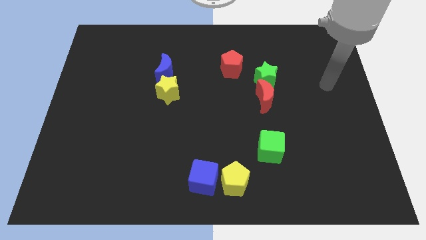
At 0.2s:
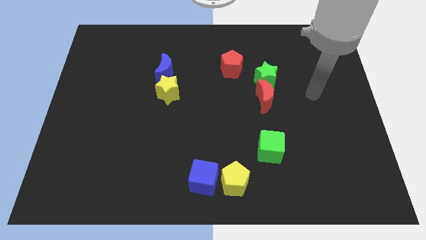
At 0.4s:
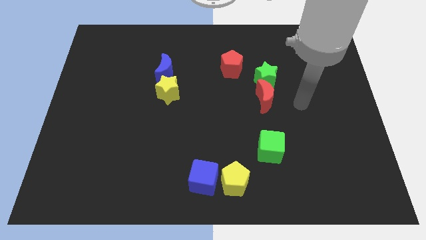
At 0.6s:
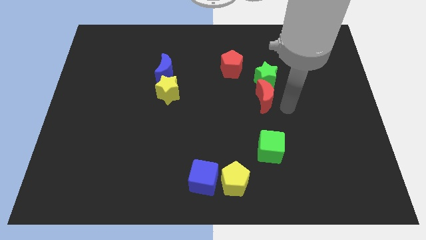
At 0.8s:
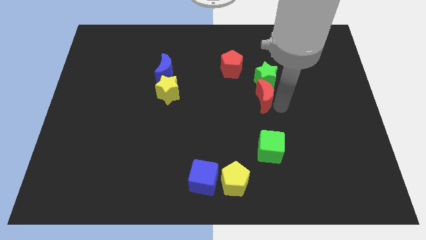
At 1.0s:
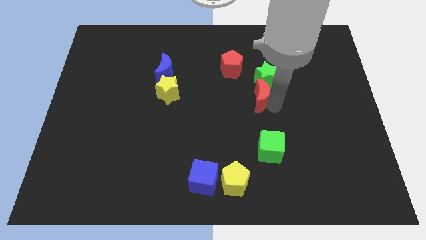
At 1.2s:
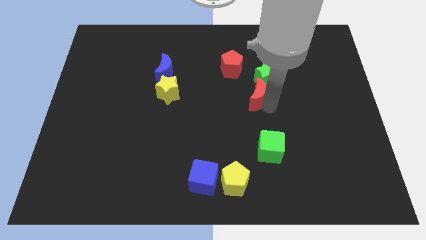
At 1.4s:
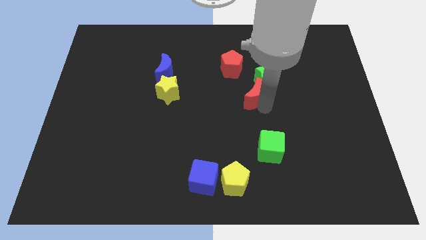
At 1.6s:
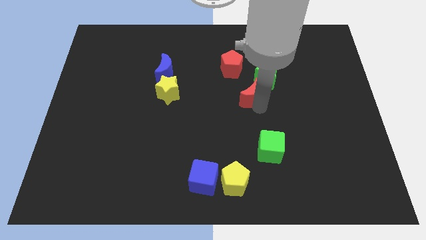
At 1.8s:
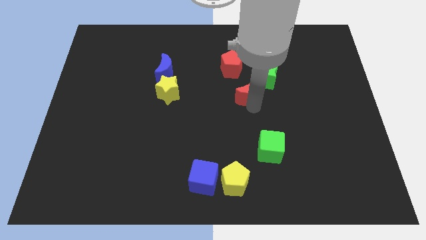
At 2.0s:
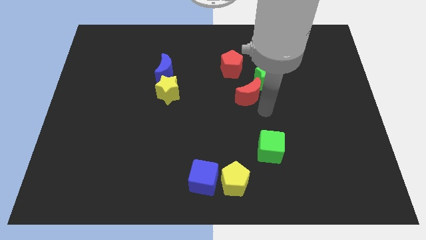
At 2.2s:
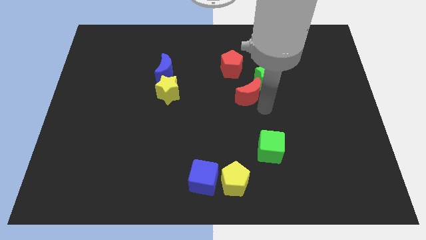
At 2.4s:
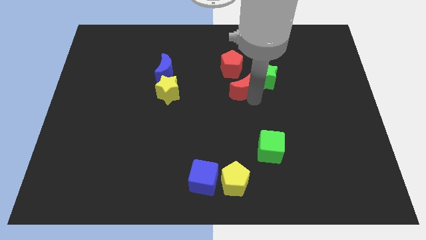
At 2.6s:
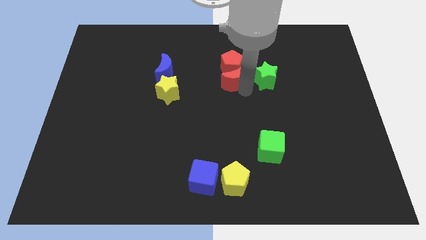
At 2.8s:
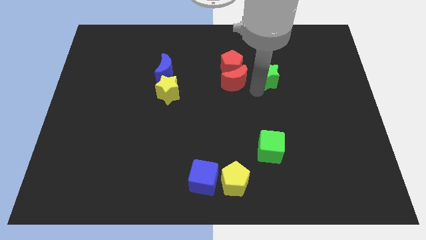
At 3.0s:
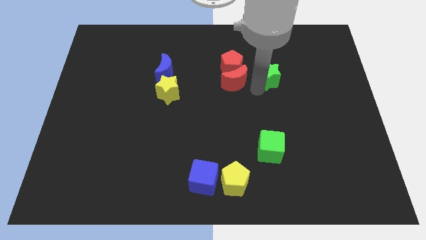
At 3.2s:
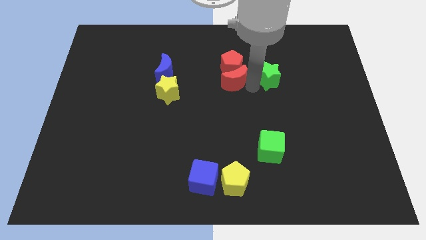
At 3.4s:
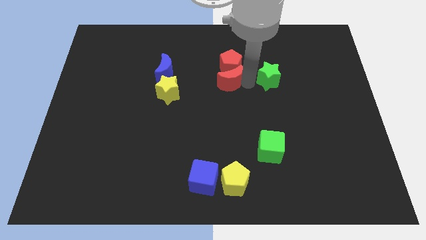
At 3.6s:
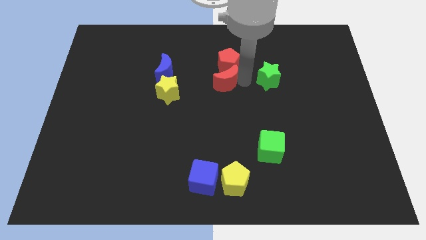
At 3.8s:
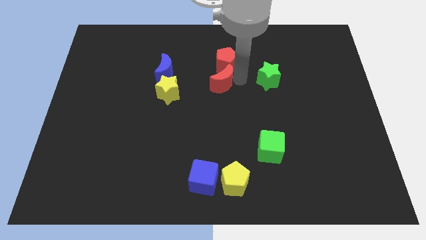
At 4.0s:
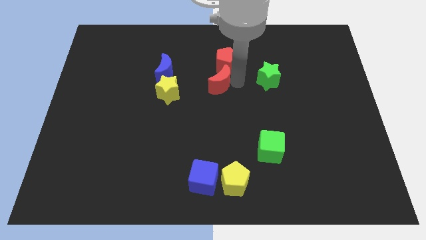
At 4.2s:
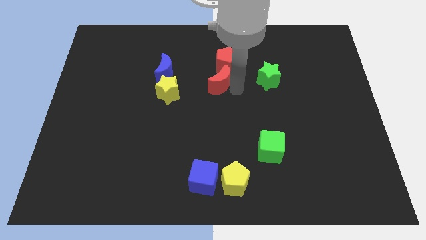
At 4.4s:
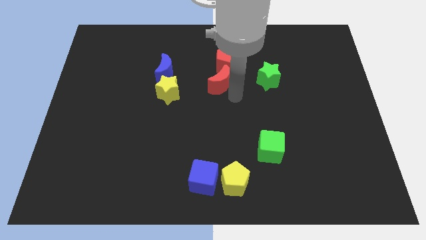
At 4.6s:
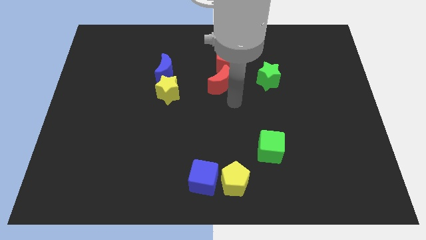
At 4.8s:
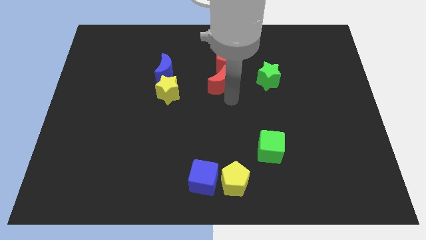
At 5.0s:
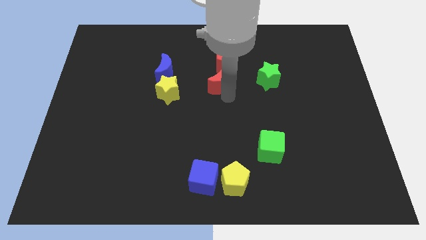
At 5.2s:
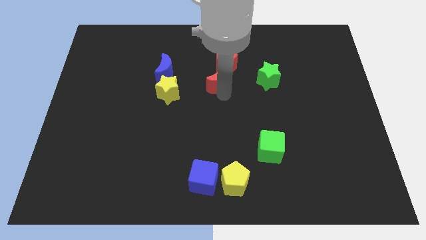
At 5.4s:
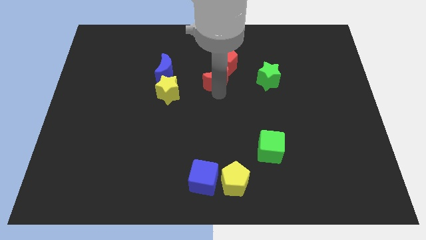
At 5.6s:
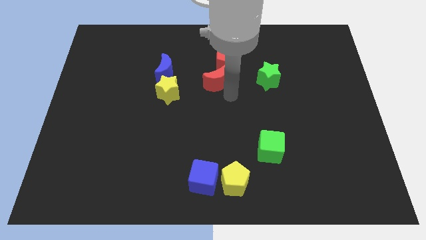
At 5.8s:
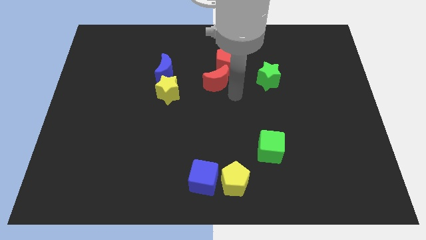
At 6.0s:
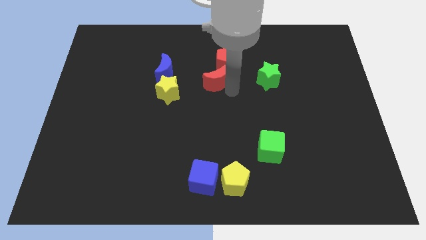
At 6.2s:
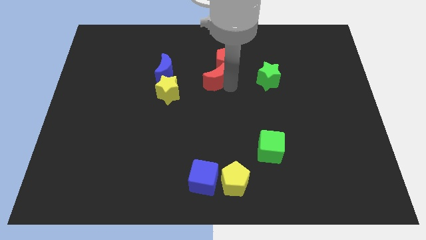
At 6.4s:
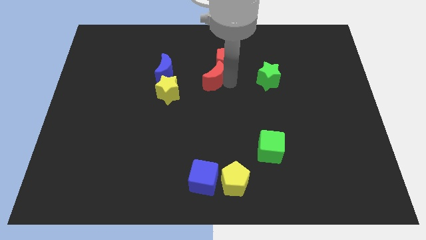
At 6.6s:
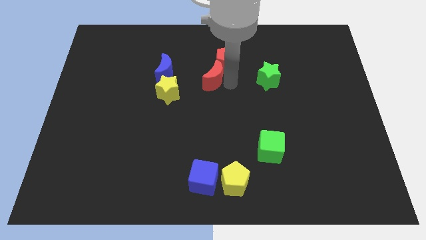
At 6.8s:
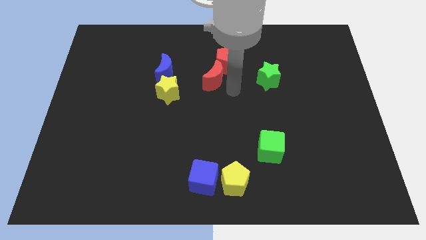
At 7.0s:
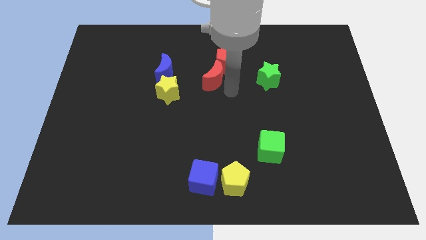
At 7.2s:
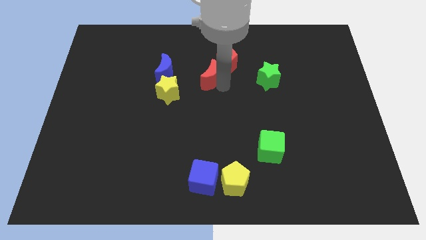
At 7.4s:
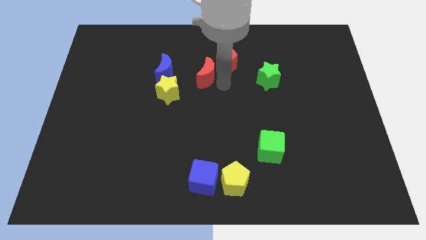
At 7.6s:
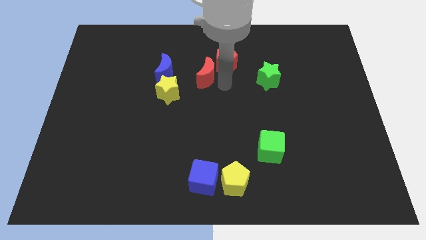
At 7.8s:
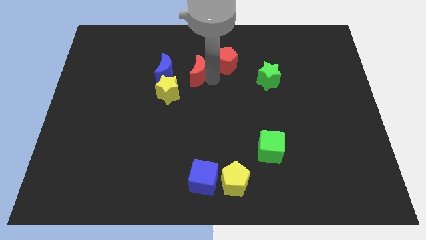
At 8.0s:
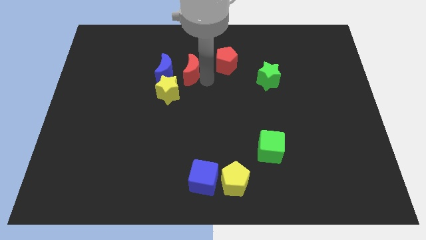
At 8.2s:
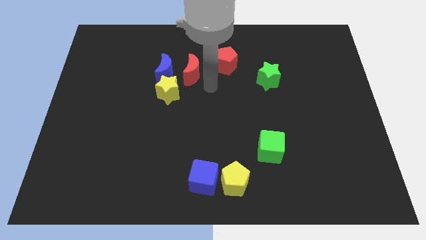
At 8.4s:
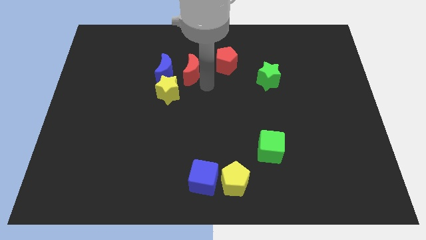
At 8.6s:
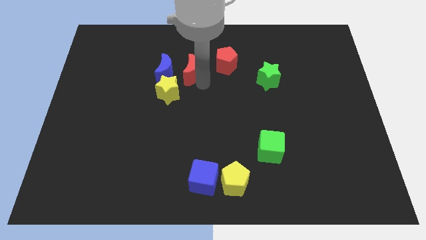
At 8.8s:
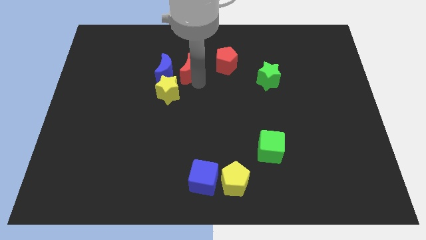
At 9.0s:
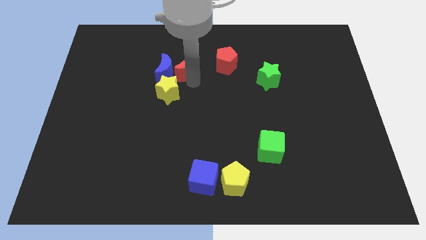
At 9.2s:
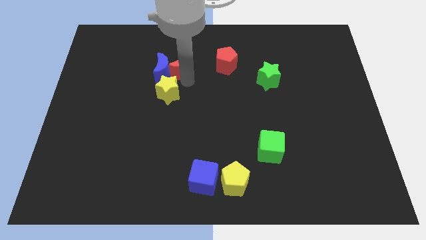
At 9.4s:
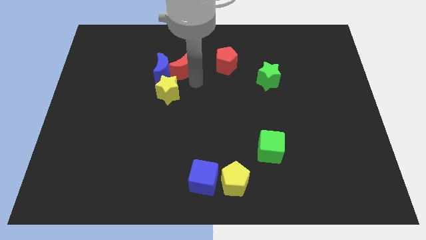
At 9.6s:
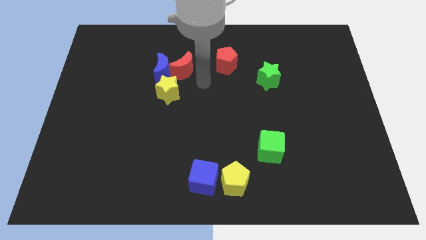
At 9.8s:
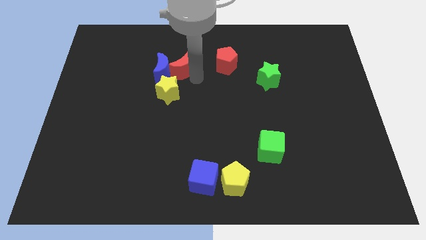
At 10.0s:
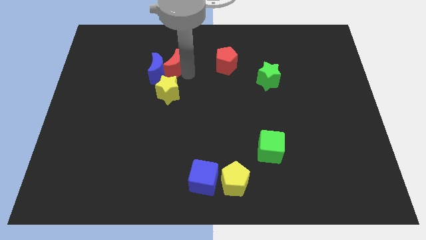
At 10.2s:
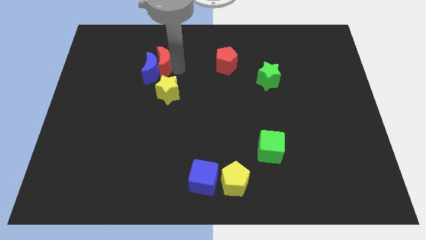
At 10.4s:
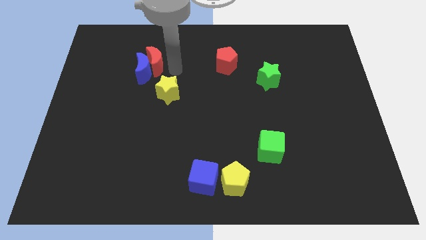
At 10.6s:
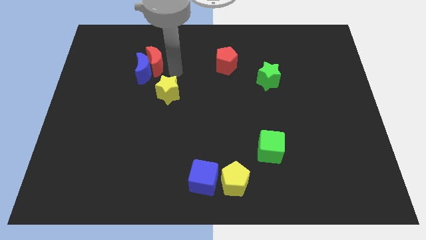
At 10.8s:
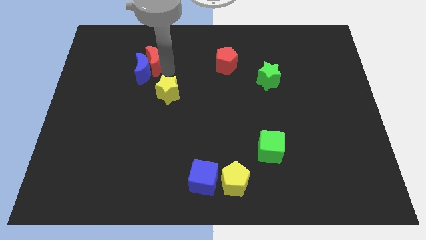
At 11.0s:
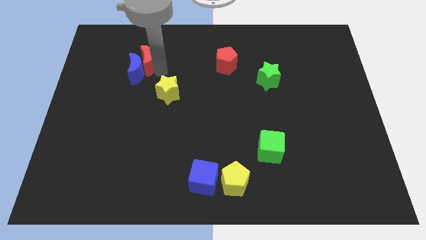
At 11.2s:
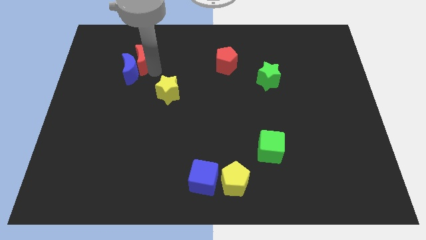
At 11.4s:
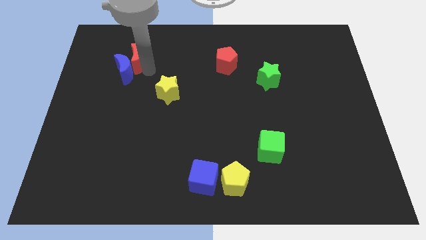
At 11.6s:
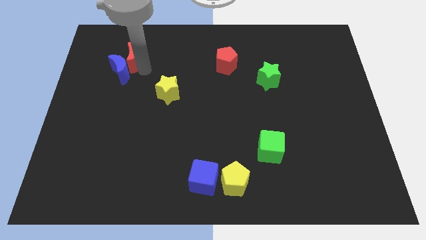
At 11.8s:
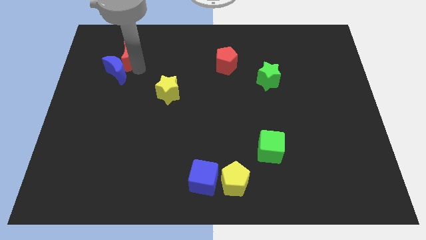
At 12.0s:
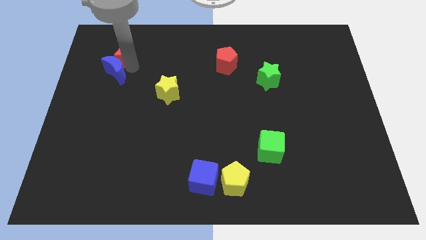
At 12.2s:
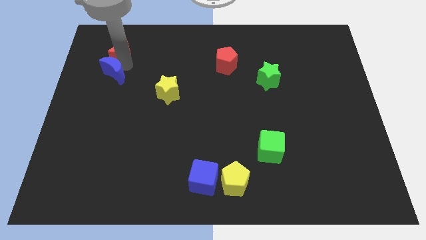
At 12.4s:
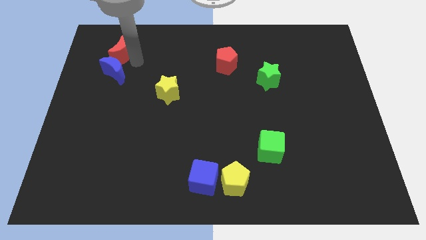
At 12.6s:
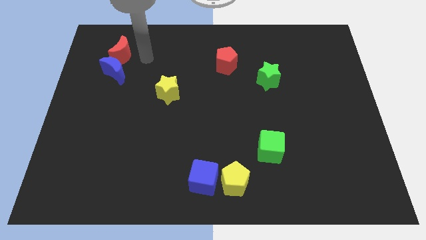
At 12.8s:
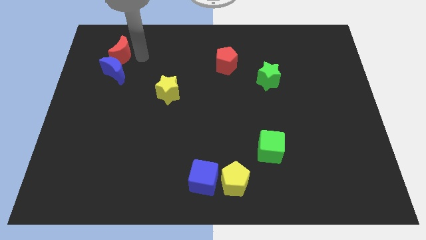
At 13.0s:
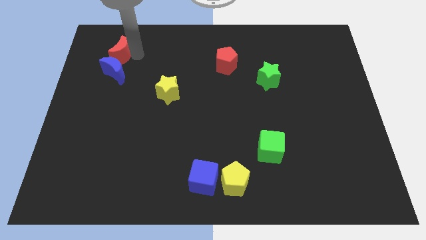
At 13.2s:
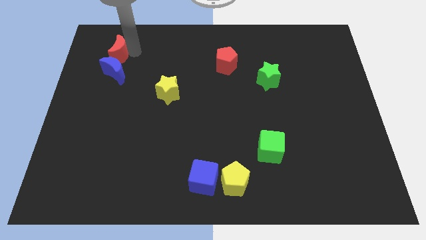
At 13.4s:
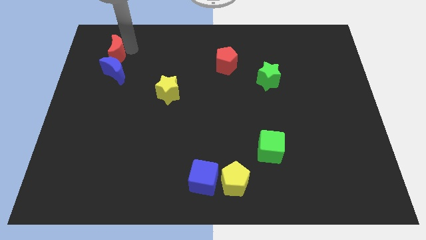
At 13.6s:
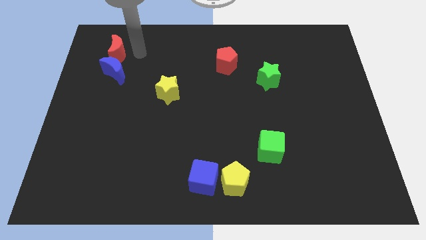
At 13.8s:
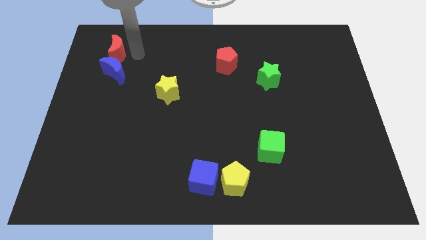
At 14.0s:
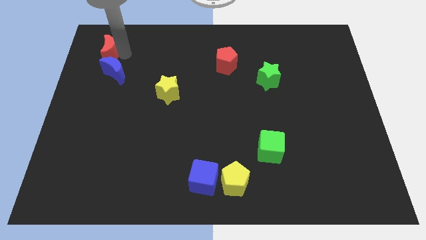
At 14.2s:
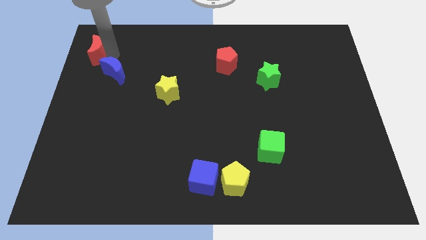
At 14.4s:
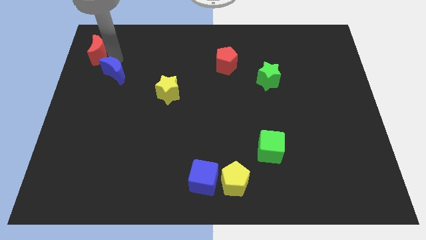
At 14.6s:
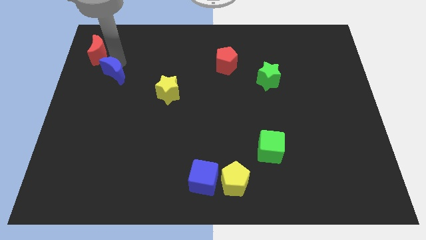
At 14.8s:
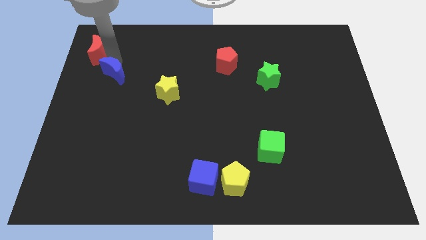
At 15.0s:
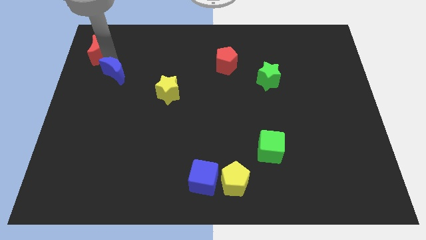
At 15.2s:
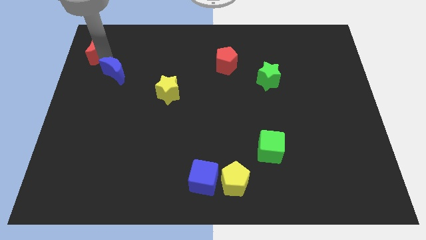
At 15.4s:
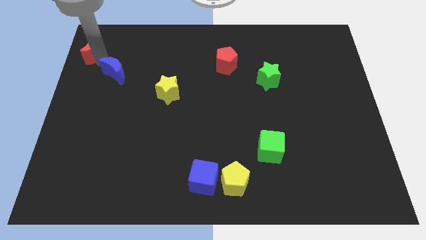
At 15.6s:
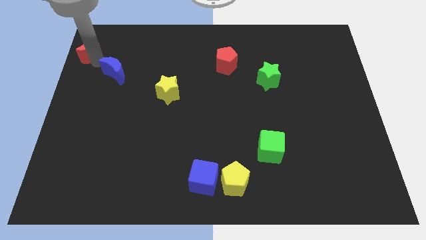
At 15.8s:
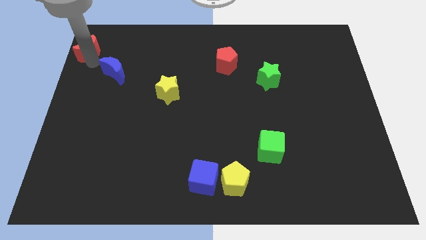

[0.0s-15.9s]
push the red moon to the top left of the board
